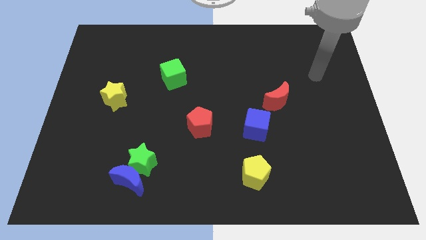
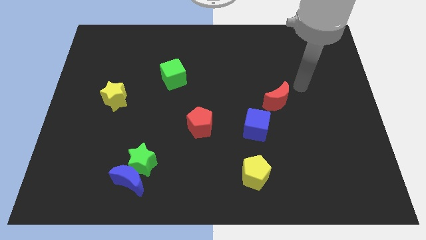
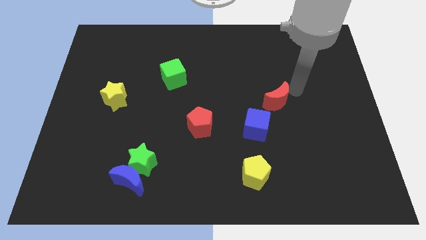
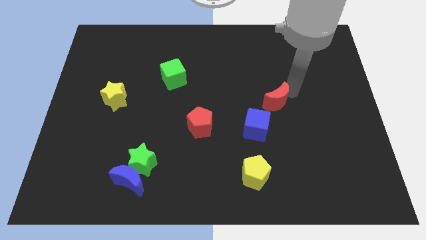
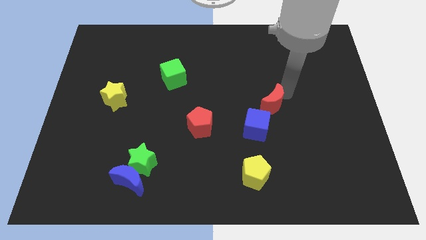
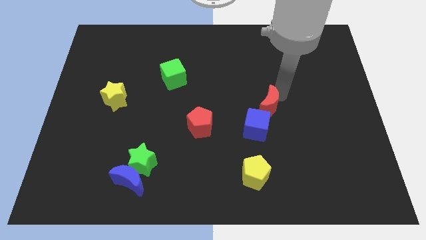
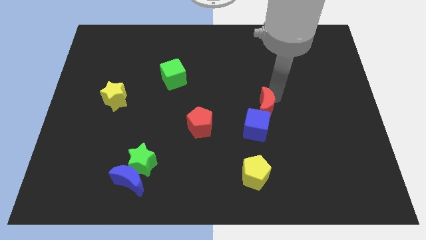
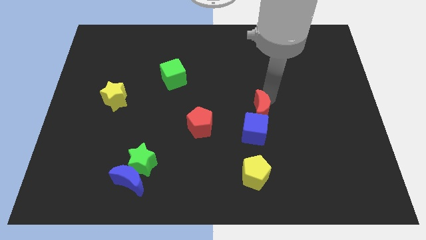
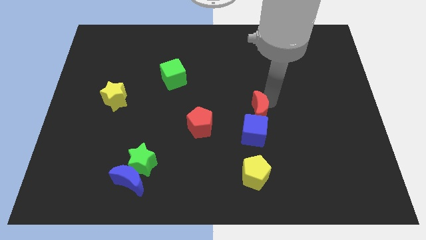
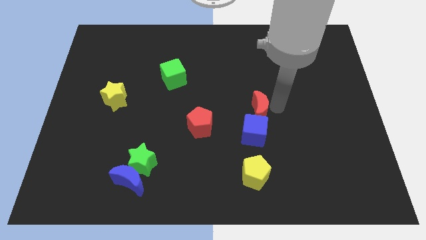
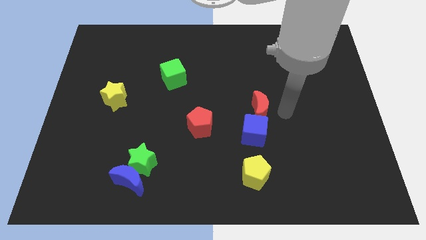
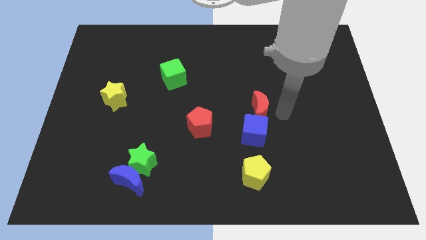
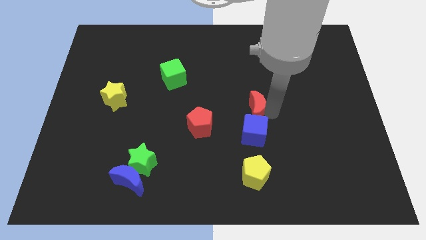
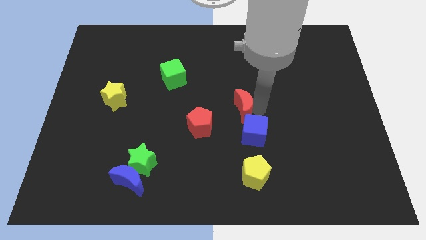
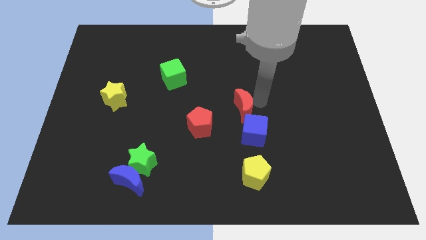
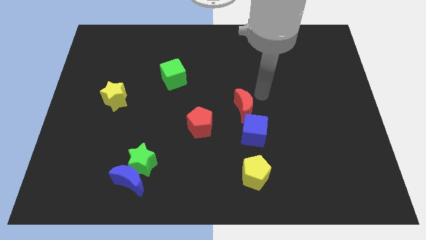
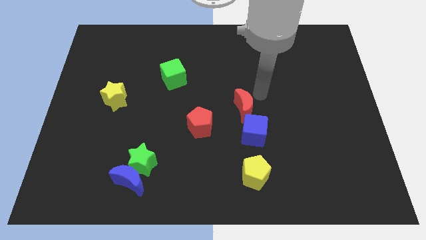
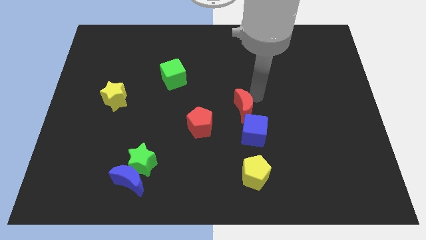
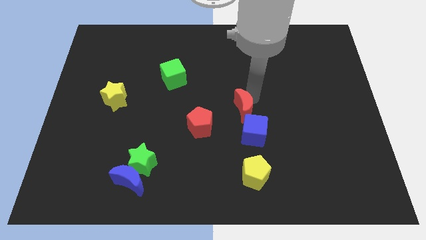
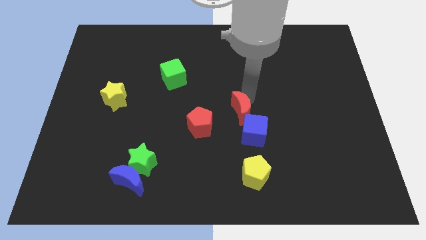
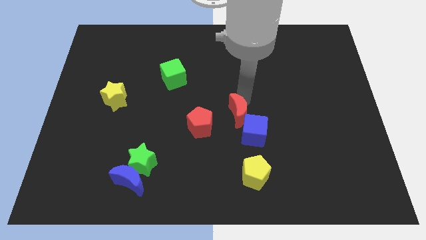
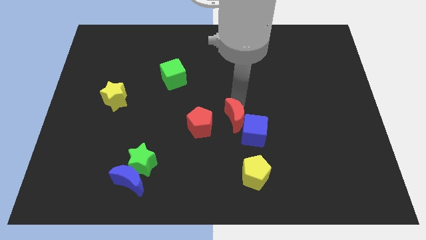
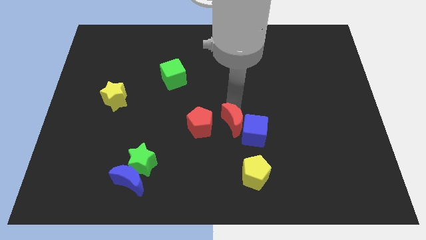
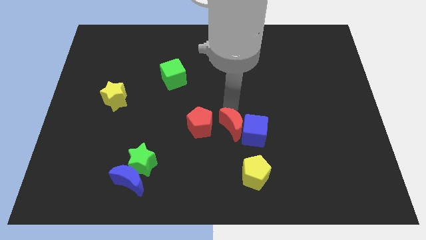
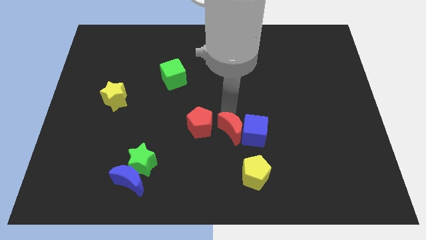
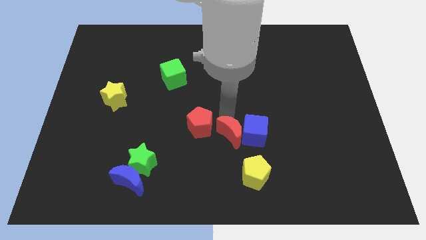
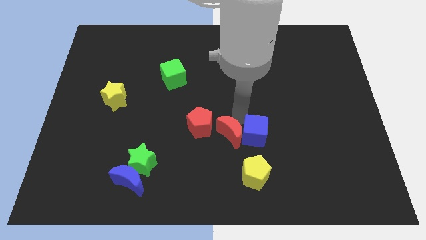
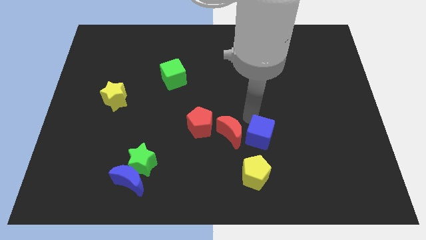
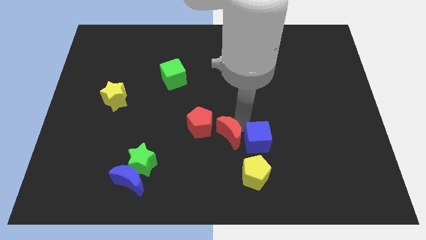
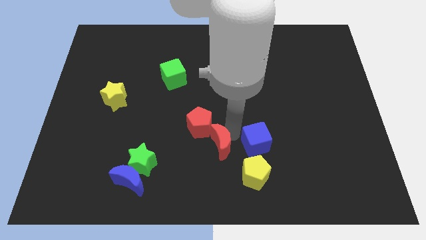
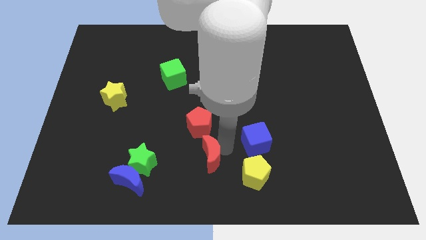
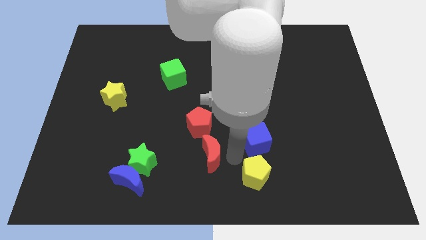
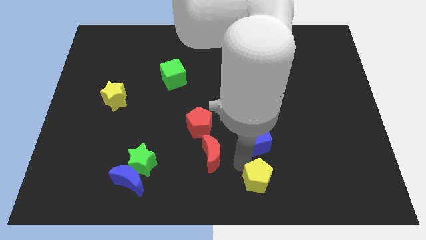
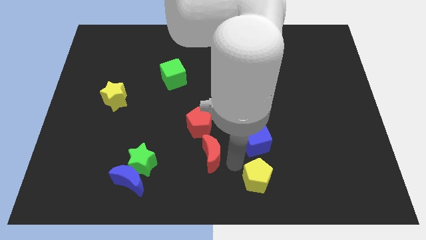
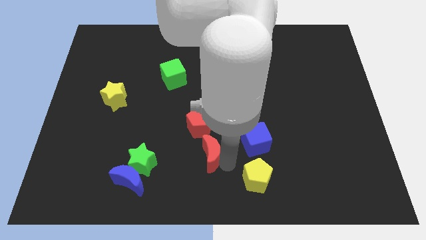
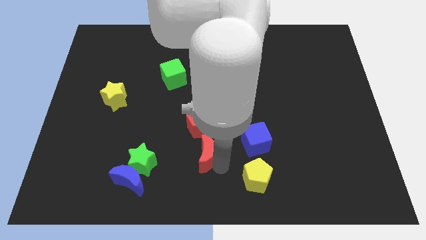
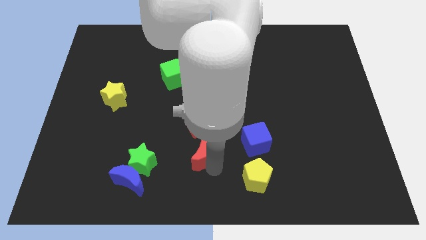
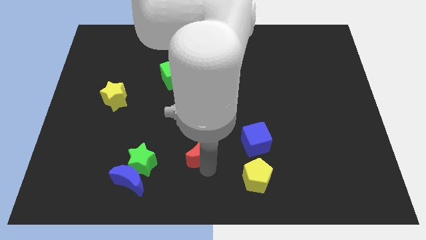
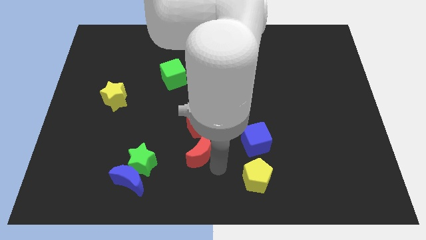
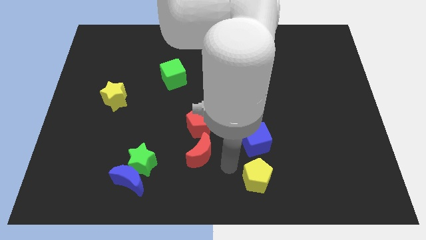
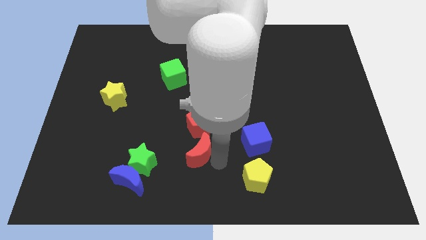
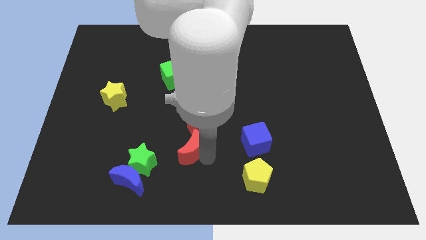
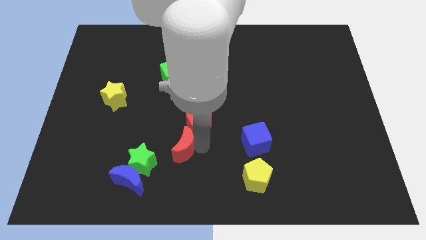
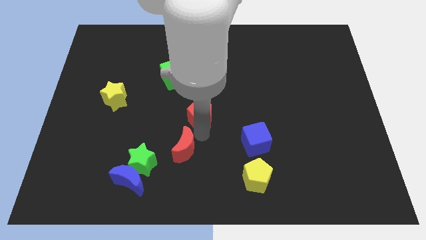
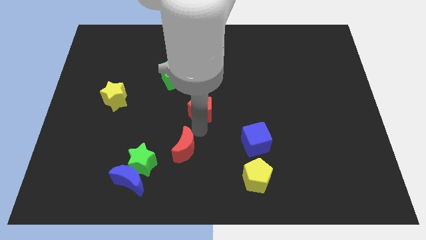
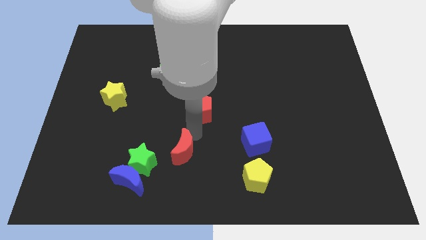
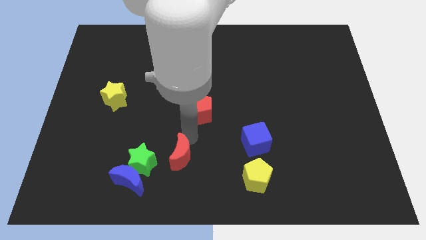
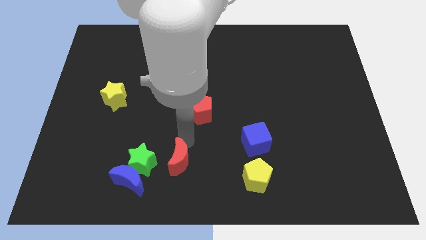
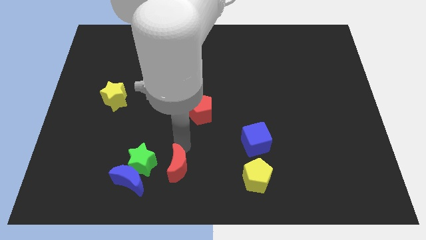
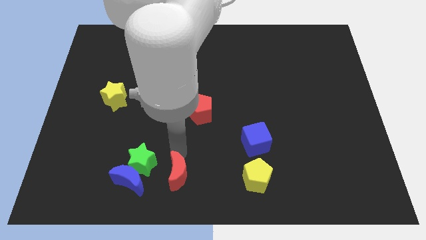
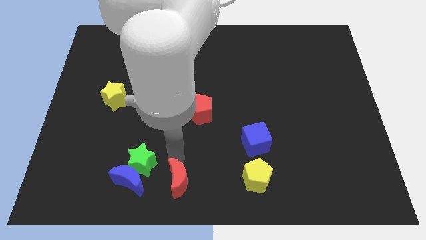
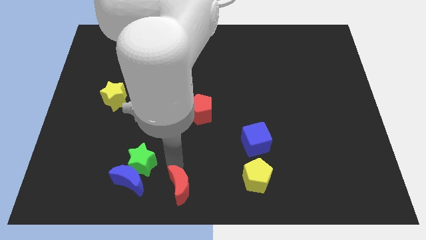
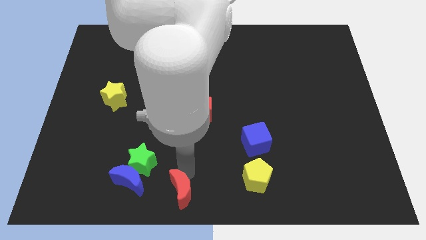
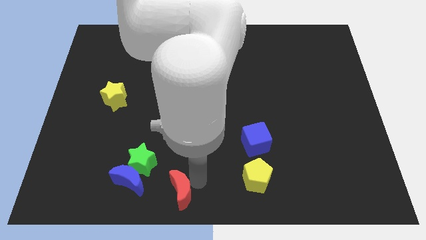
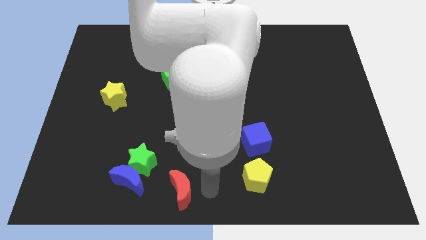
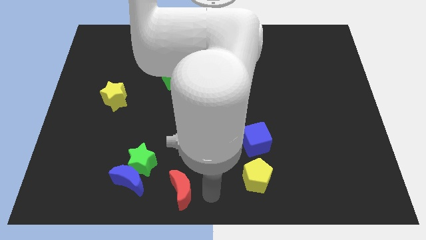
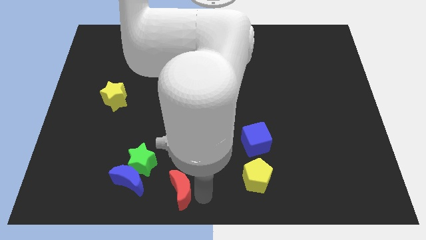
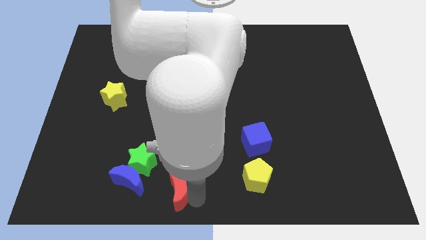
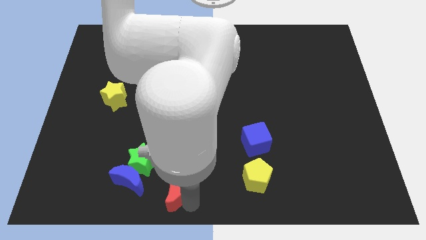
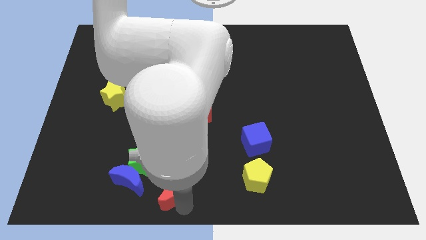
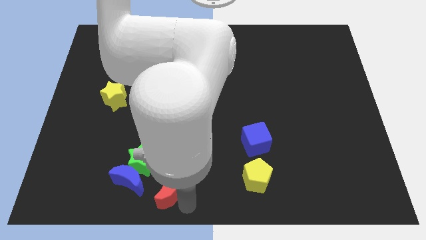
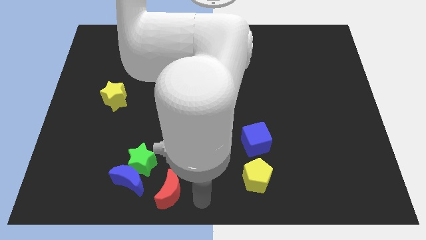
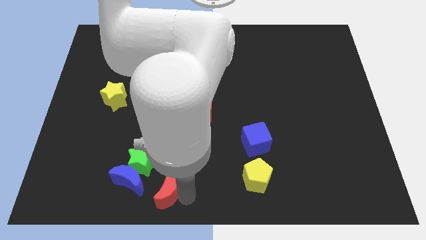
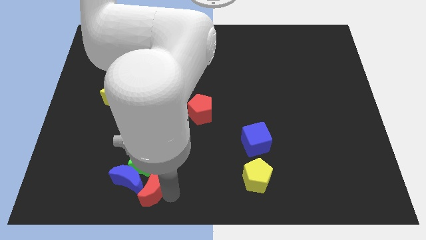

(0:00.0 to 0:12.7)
push the red moon next to the blue moon

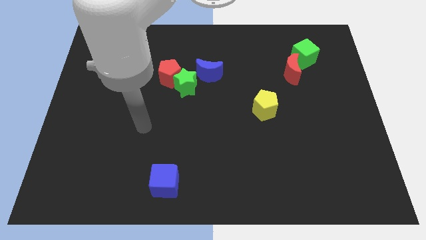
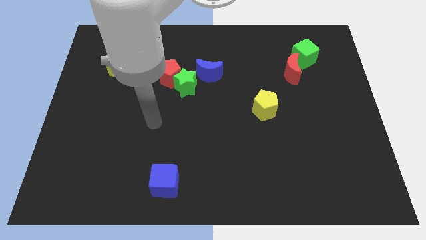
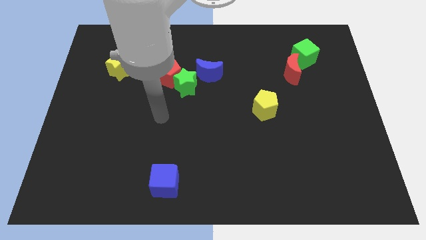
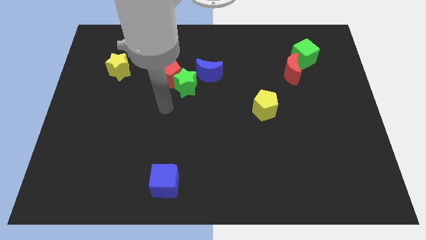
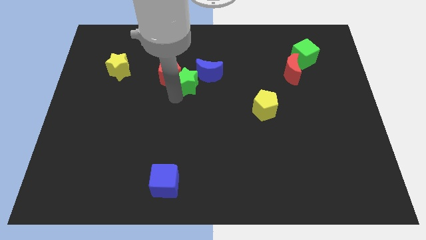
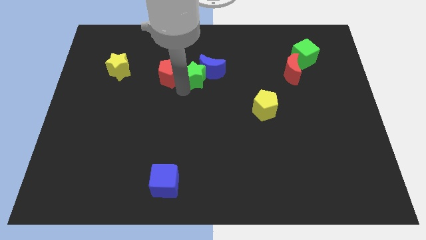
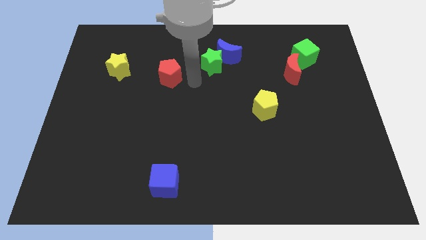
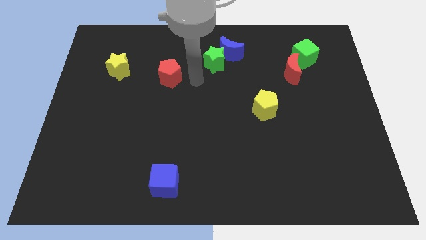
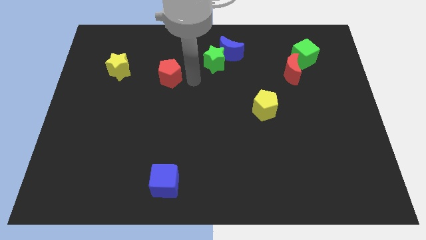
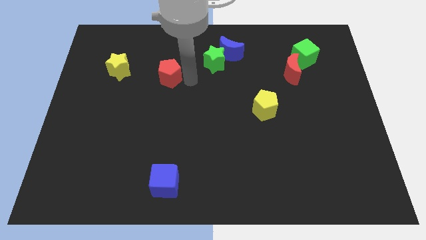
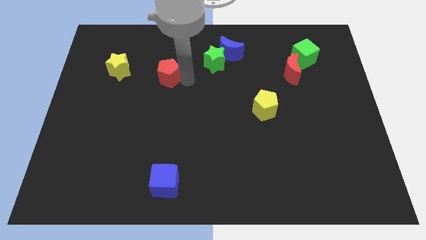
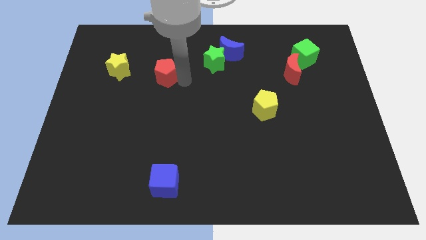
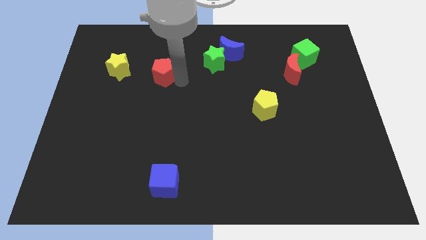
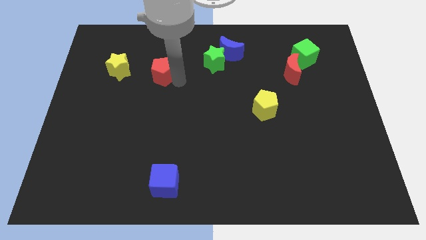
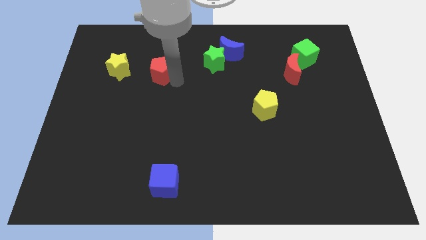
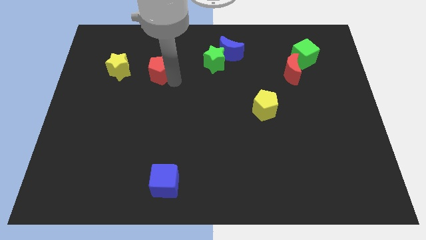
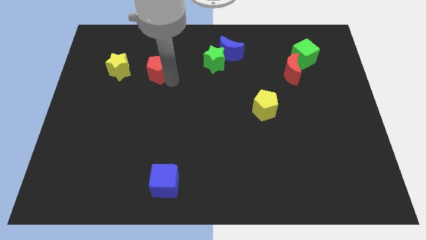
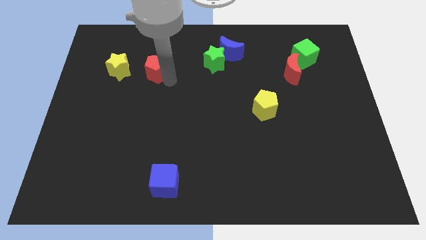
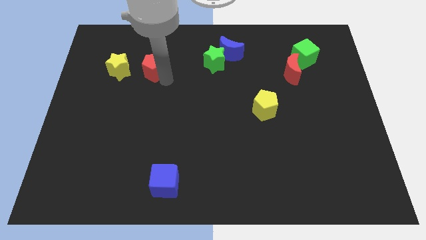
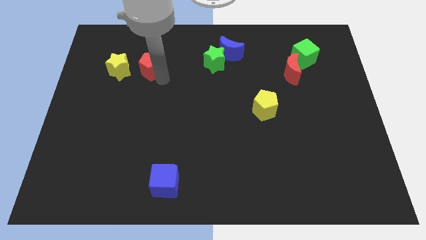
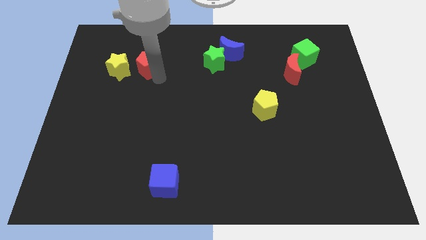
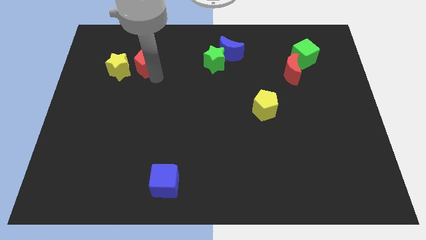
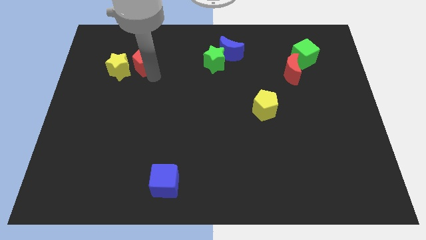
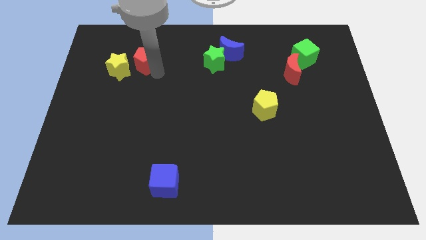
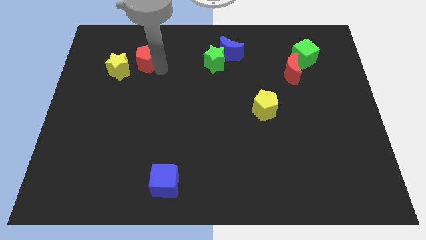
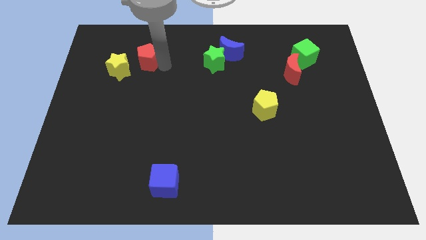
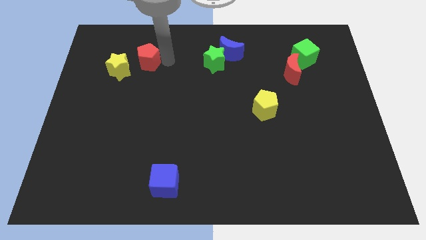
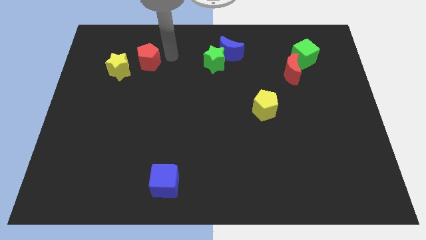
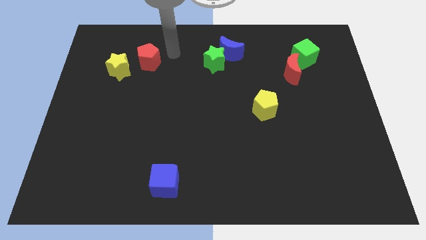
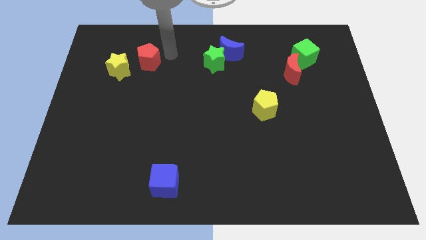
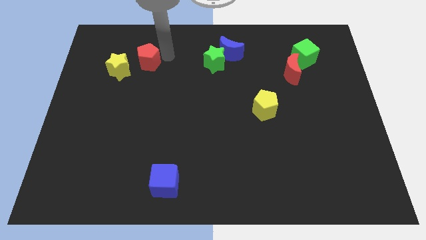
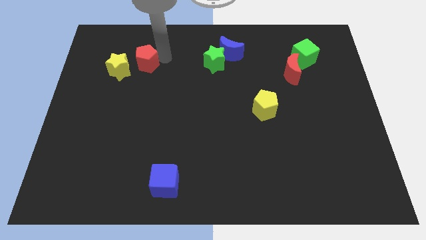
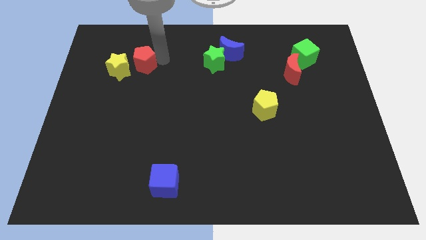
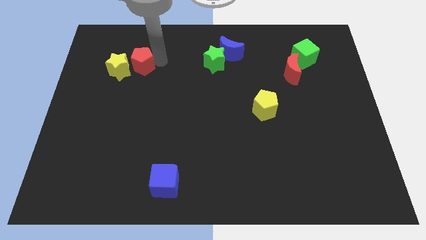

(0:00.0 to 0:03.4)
push the red pentagon close to the yellow star
